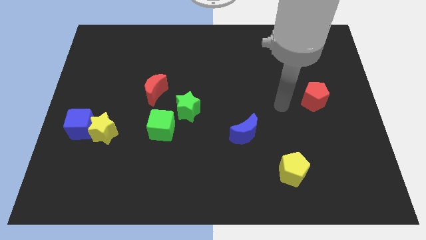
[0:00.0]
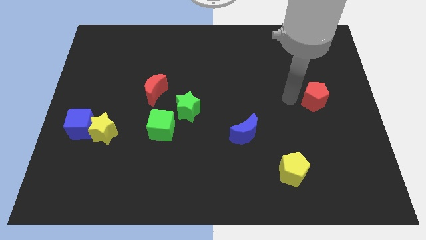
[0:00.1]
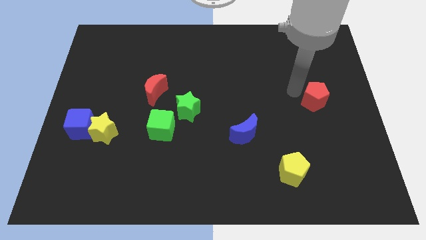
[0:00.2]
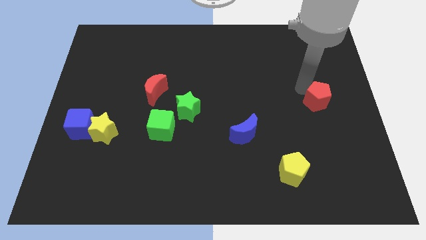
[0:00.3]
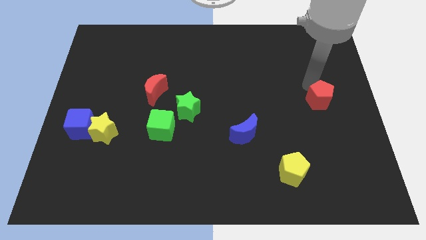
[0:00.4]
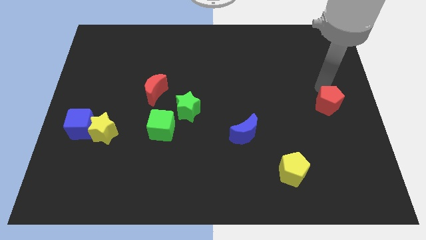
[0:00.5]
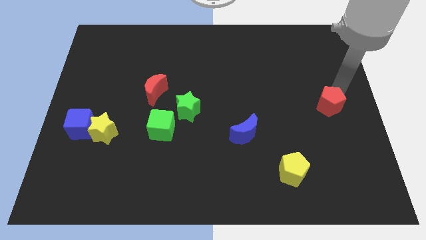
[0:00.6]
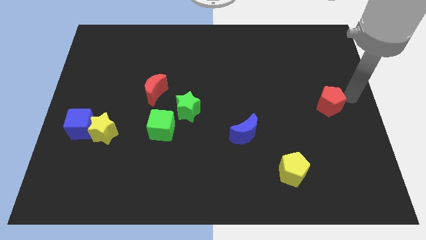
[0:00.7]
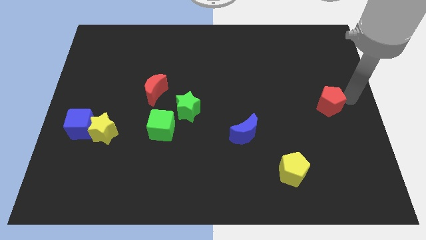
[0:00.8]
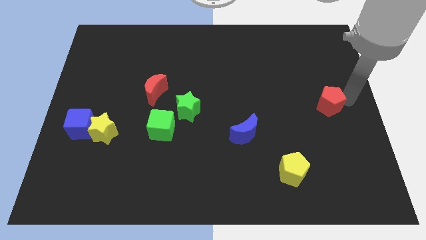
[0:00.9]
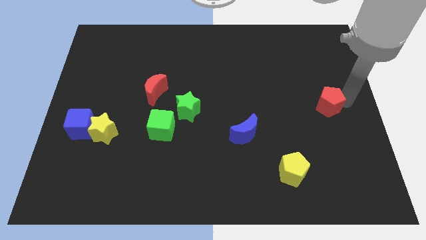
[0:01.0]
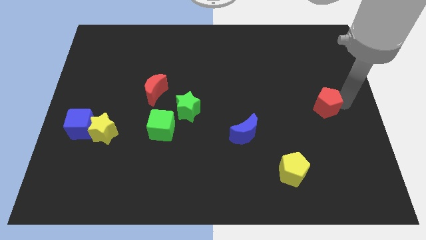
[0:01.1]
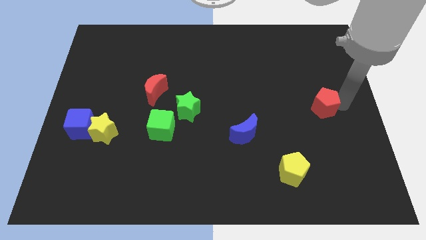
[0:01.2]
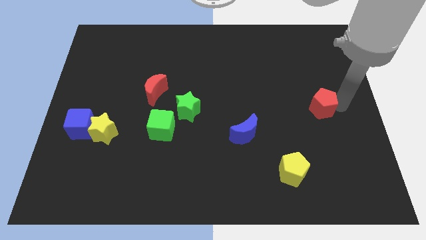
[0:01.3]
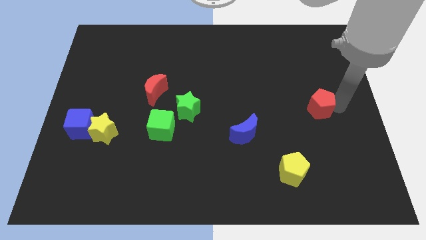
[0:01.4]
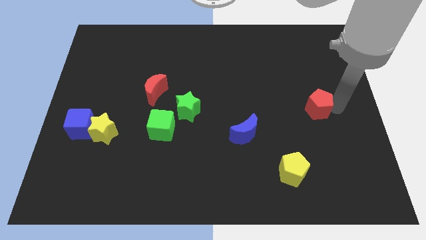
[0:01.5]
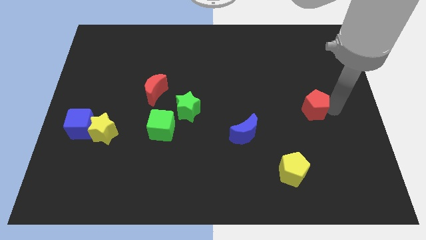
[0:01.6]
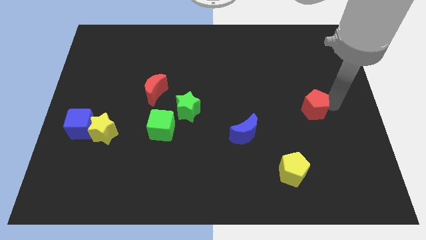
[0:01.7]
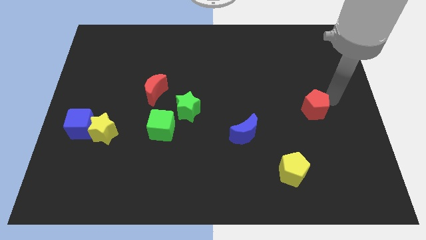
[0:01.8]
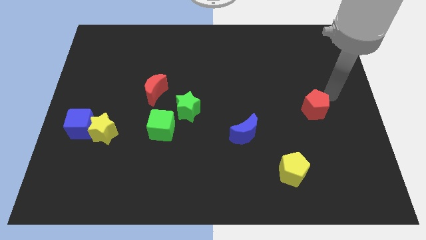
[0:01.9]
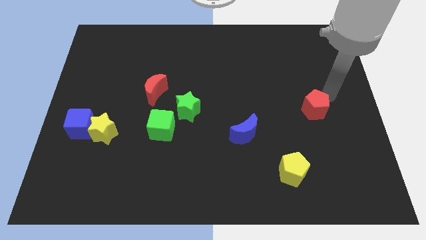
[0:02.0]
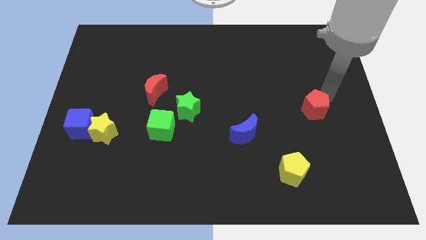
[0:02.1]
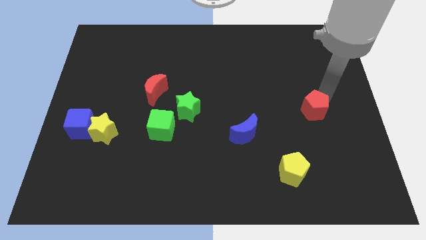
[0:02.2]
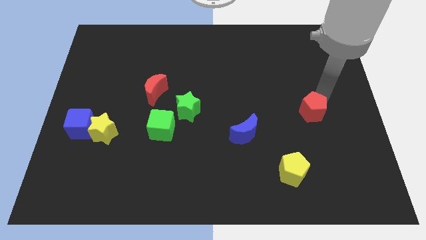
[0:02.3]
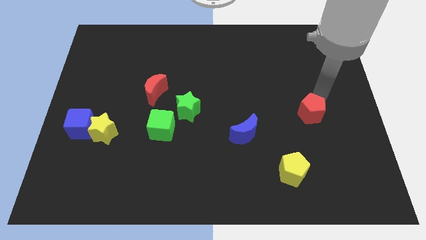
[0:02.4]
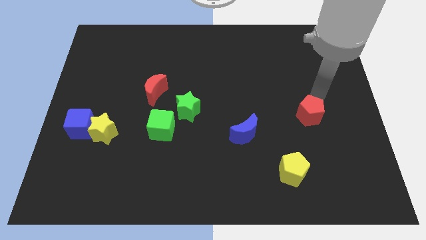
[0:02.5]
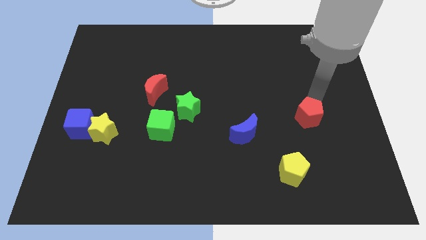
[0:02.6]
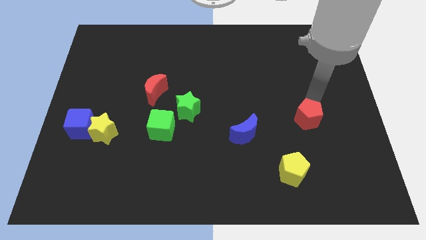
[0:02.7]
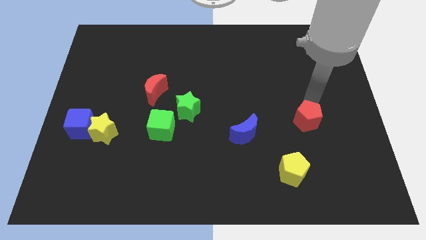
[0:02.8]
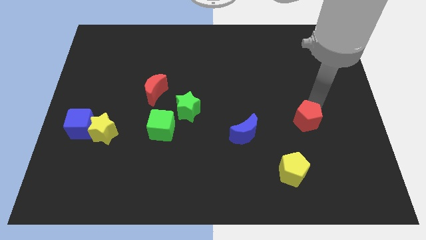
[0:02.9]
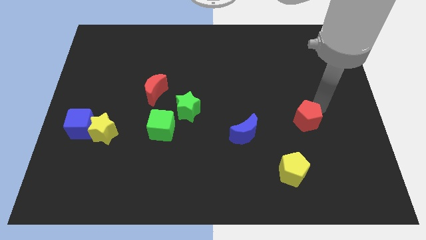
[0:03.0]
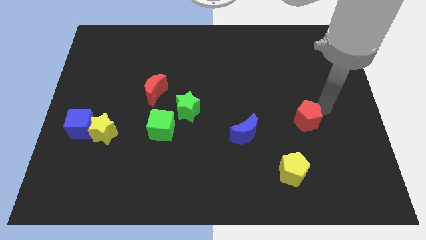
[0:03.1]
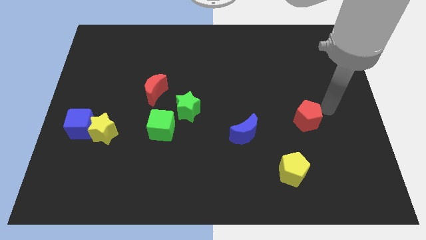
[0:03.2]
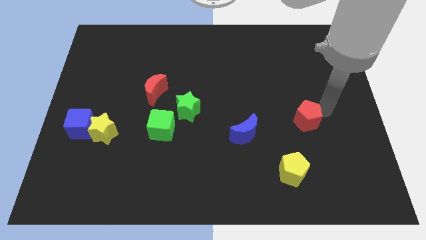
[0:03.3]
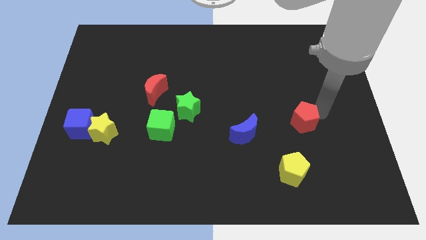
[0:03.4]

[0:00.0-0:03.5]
slightly push the red pentagon downwards and left

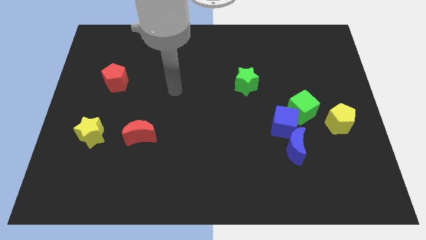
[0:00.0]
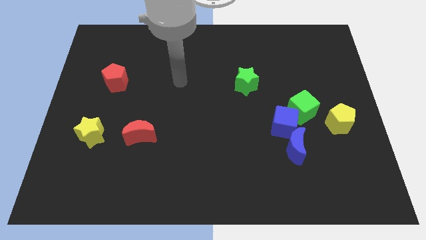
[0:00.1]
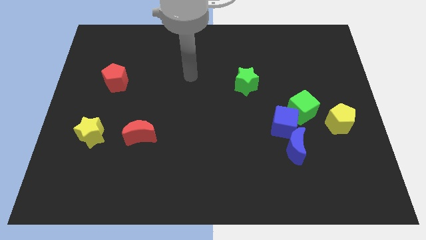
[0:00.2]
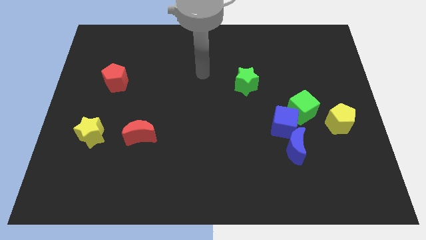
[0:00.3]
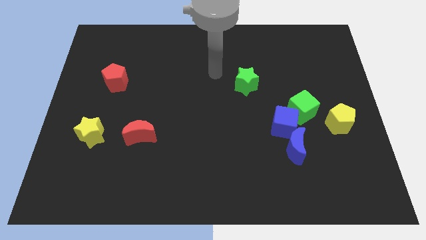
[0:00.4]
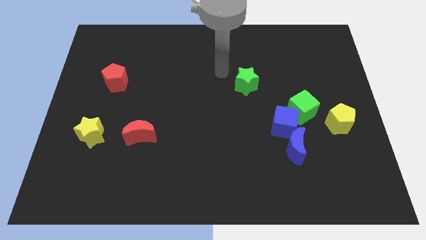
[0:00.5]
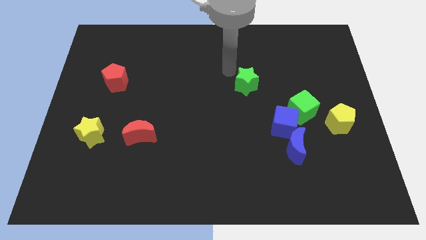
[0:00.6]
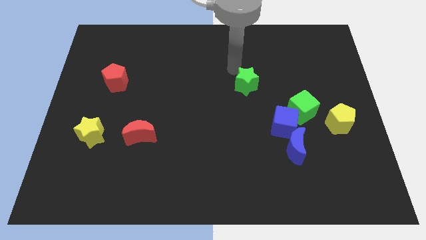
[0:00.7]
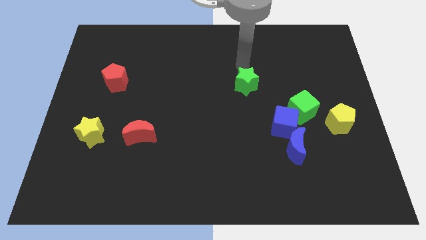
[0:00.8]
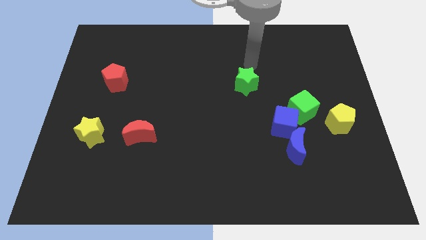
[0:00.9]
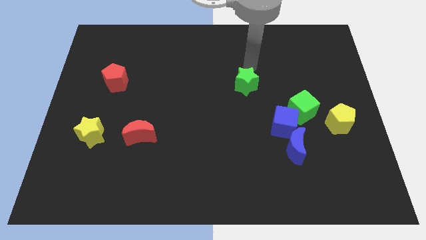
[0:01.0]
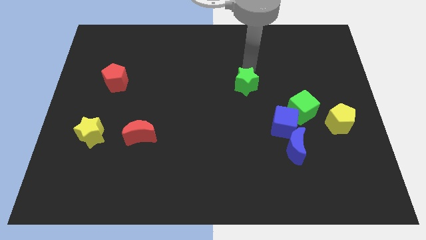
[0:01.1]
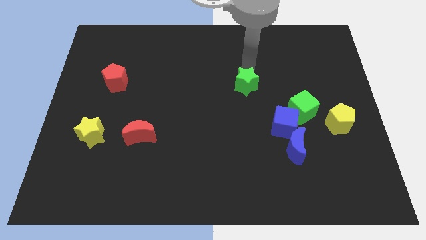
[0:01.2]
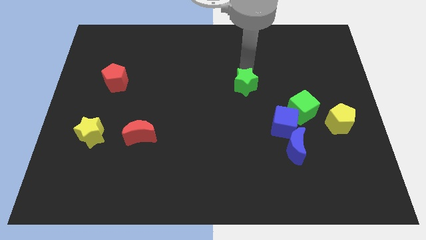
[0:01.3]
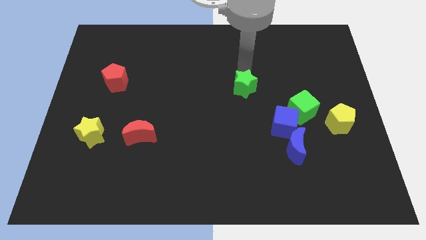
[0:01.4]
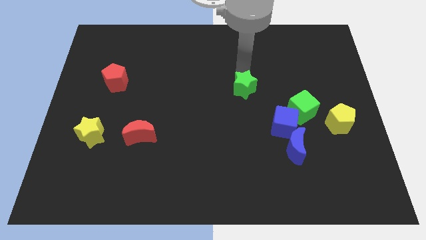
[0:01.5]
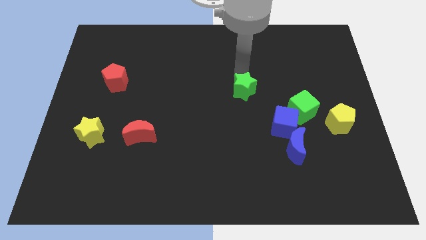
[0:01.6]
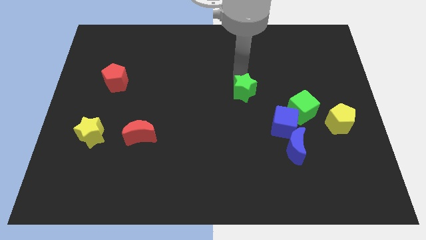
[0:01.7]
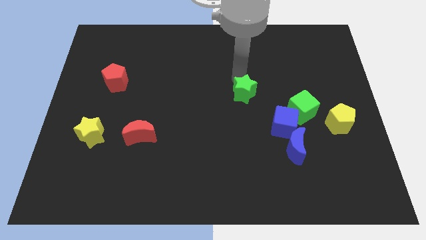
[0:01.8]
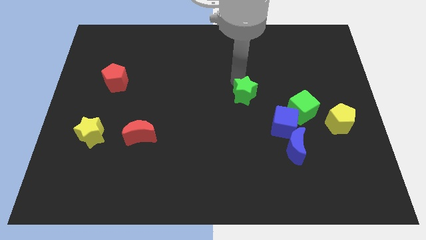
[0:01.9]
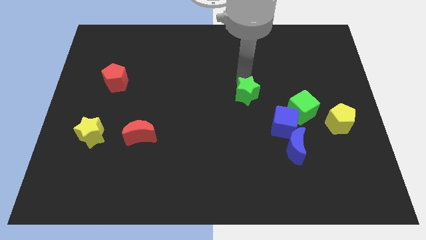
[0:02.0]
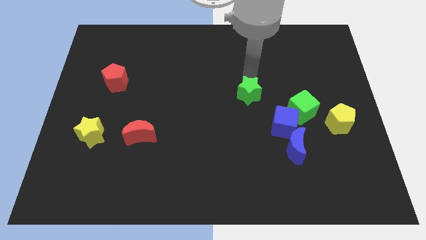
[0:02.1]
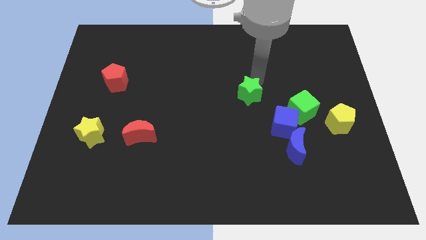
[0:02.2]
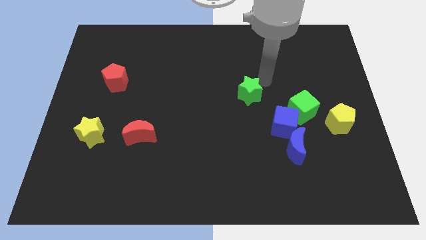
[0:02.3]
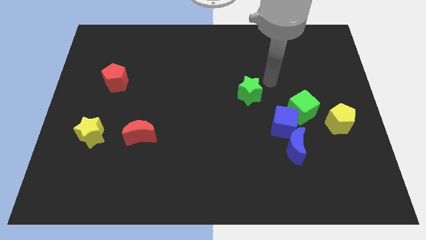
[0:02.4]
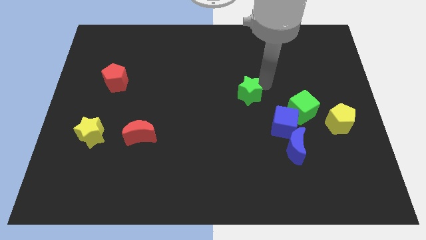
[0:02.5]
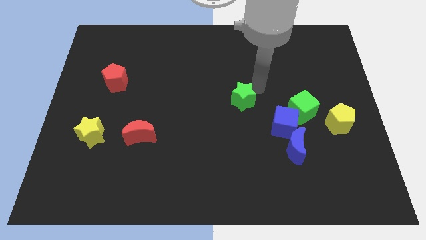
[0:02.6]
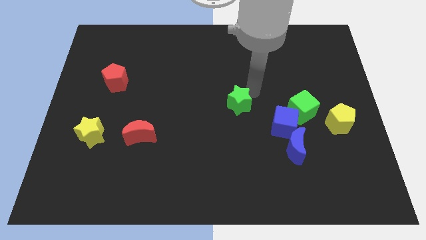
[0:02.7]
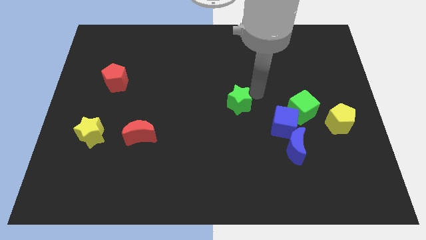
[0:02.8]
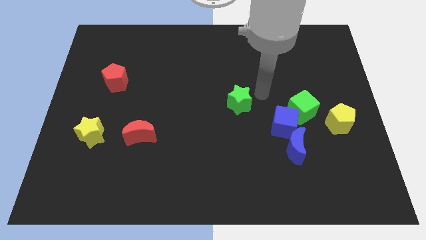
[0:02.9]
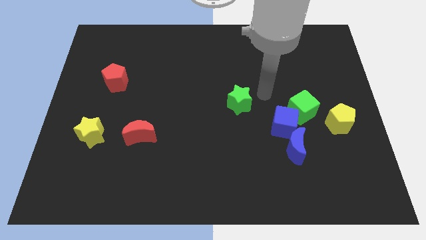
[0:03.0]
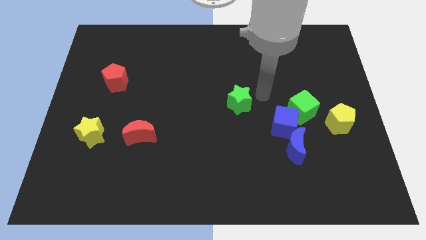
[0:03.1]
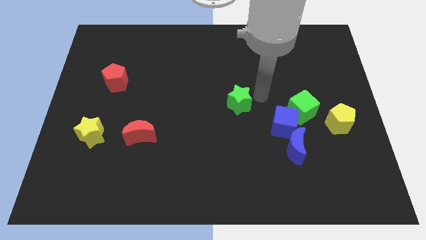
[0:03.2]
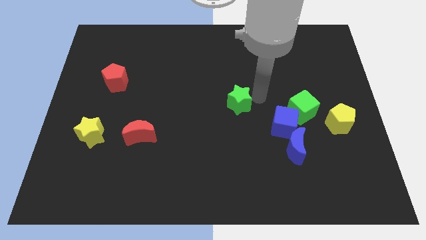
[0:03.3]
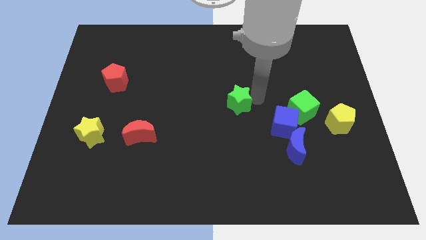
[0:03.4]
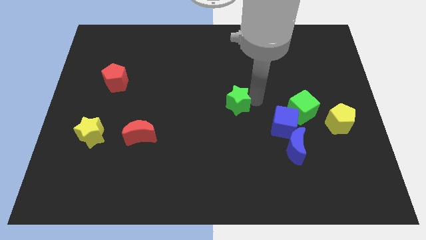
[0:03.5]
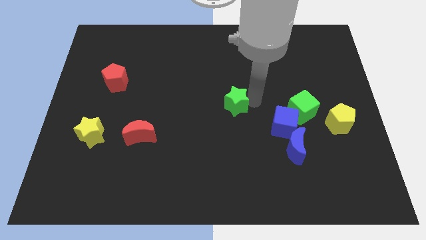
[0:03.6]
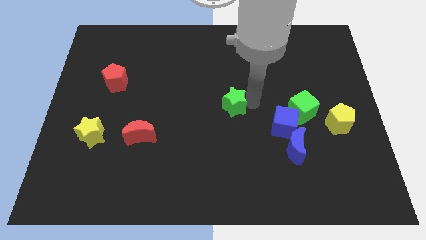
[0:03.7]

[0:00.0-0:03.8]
slightly push the green star downwards and then left
